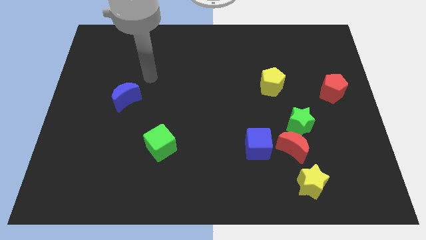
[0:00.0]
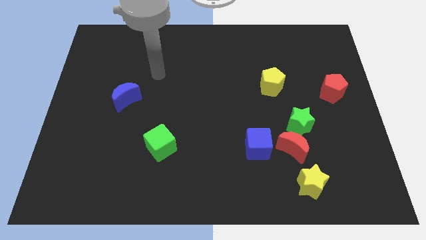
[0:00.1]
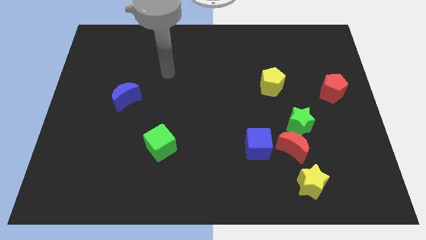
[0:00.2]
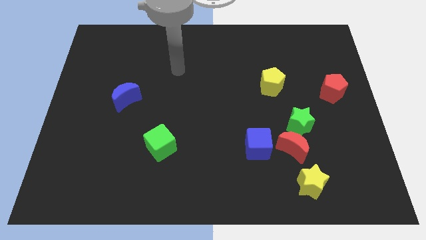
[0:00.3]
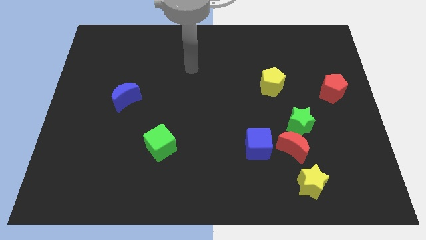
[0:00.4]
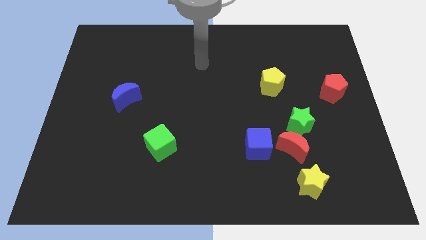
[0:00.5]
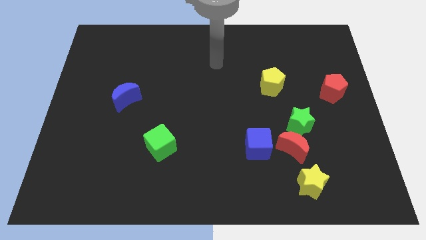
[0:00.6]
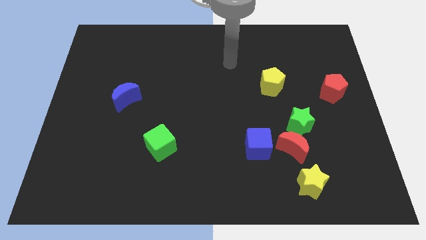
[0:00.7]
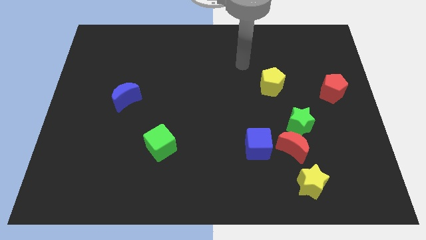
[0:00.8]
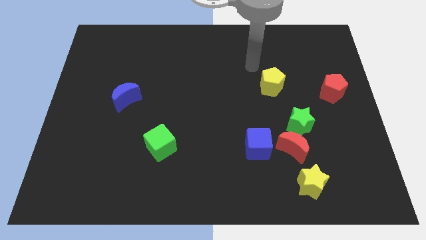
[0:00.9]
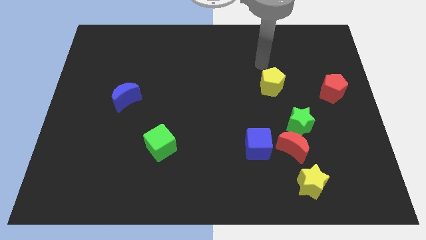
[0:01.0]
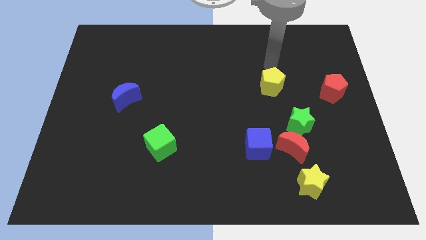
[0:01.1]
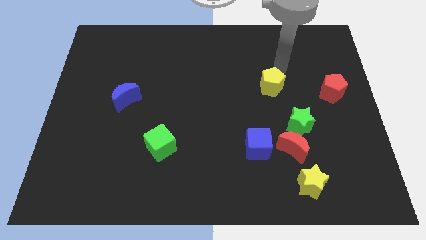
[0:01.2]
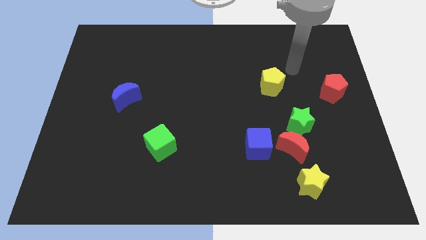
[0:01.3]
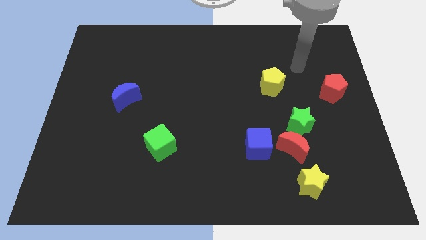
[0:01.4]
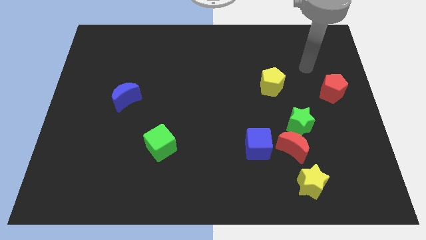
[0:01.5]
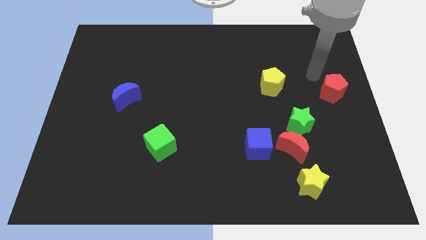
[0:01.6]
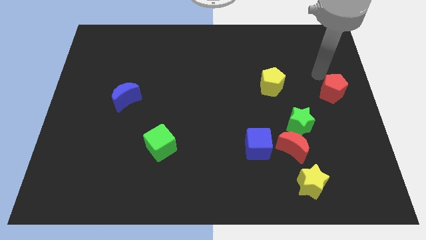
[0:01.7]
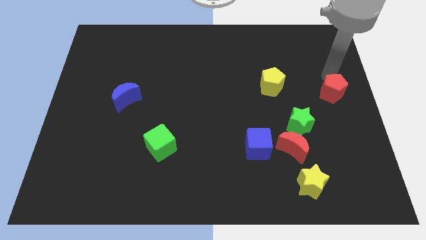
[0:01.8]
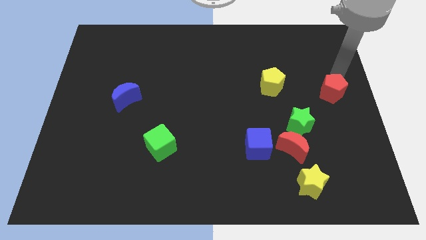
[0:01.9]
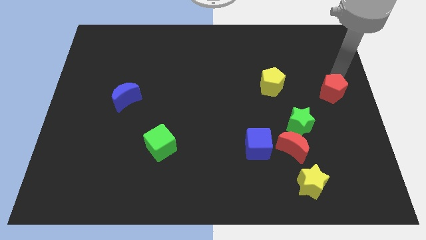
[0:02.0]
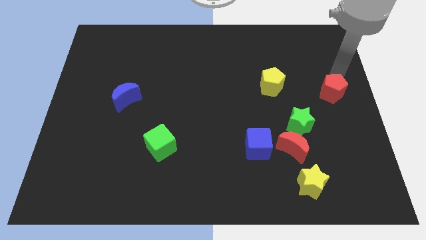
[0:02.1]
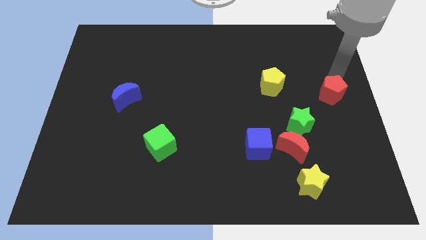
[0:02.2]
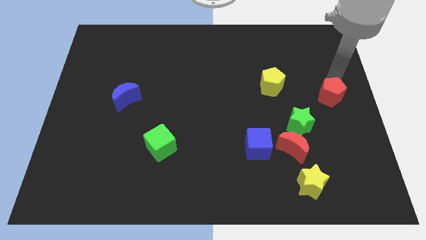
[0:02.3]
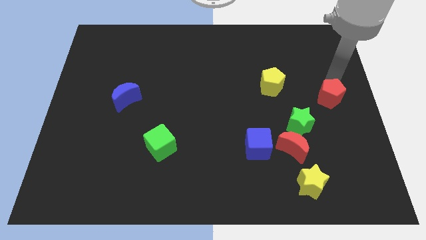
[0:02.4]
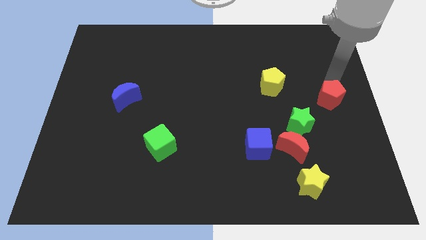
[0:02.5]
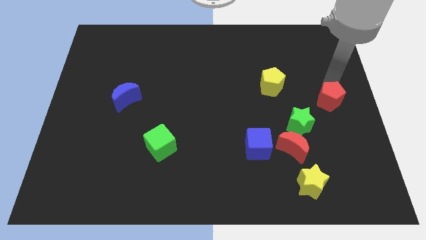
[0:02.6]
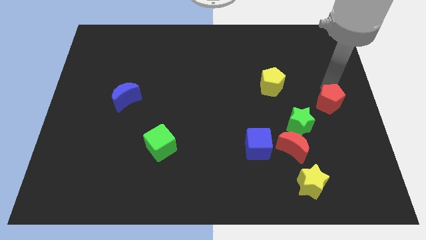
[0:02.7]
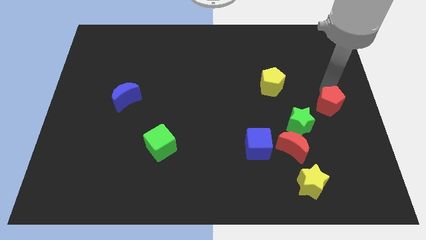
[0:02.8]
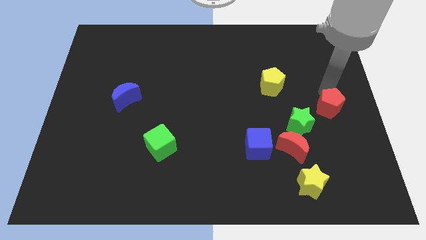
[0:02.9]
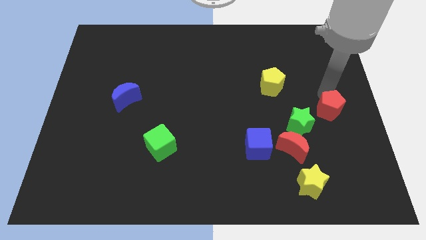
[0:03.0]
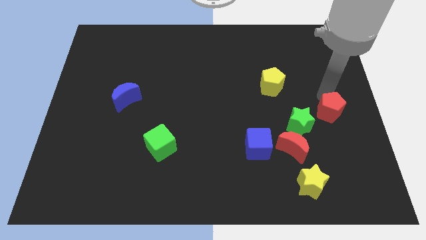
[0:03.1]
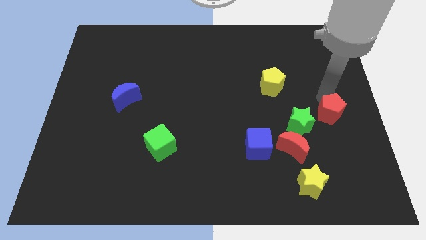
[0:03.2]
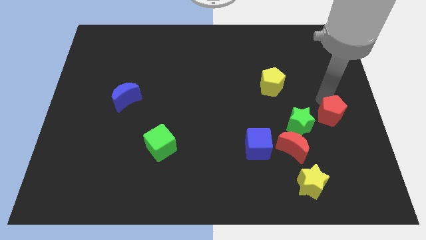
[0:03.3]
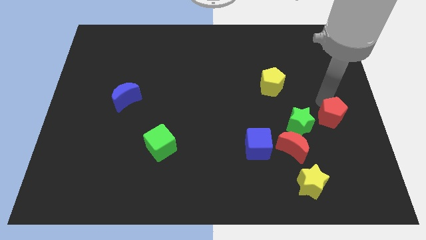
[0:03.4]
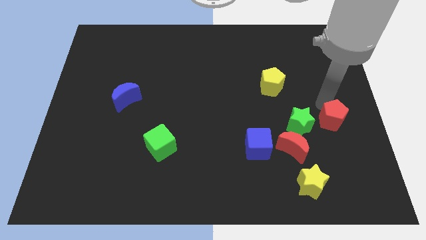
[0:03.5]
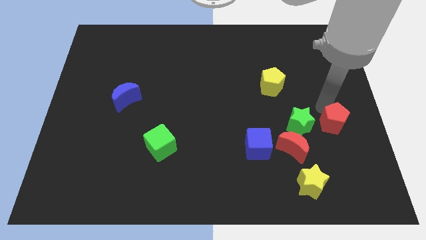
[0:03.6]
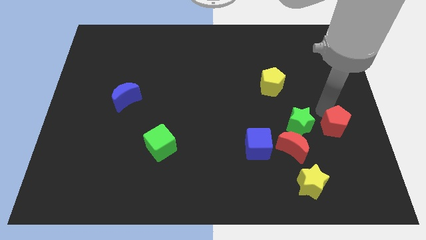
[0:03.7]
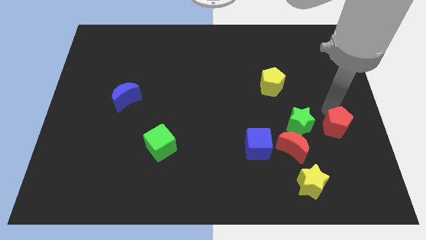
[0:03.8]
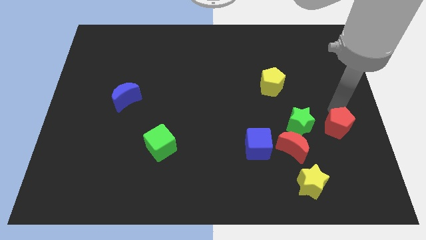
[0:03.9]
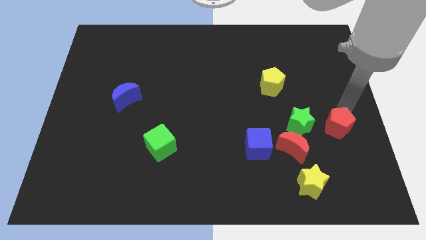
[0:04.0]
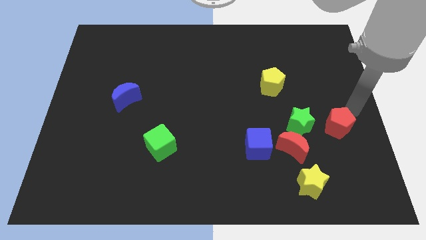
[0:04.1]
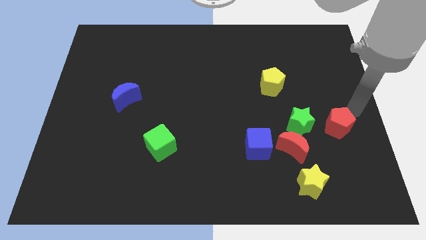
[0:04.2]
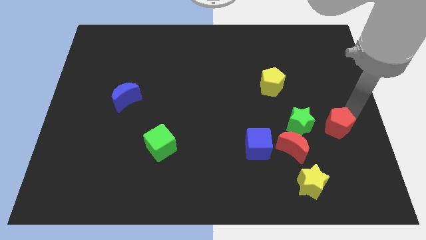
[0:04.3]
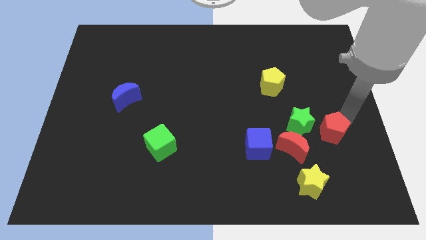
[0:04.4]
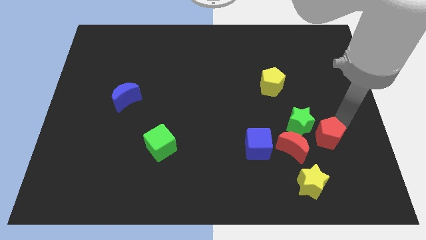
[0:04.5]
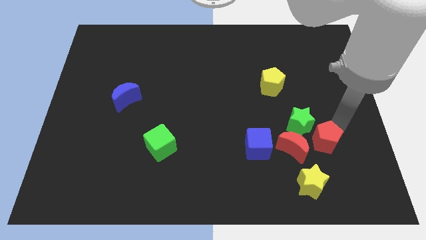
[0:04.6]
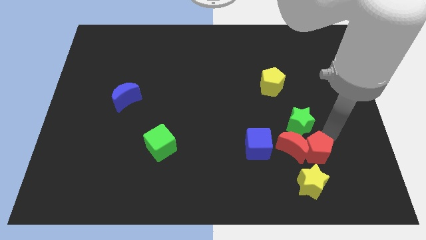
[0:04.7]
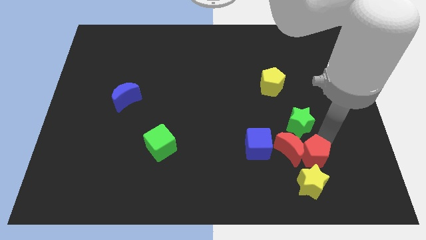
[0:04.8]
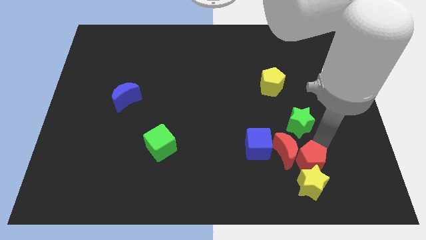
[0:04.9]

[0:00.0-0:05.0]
move the red pentagon close to the yellow star

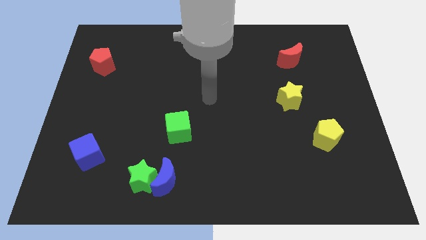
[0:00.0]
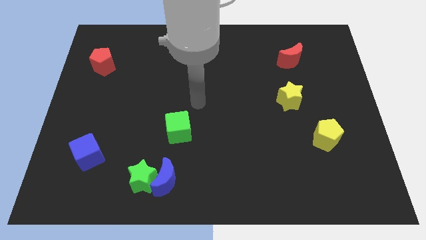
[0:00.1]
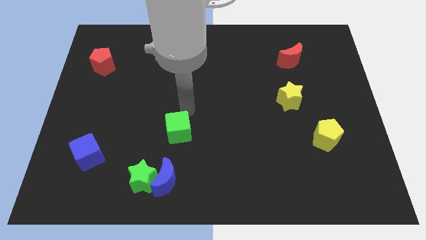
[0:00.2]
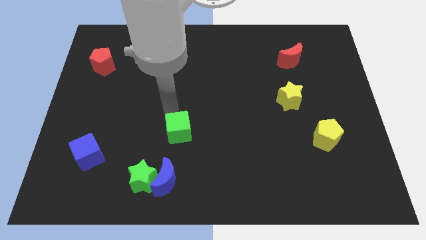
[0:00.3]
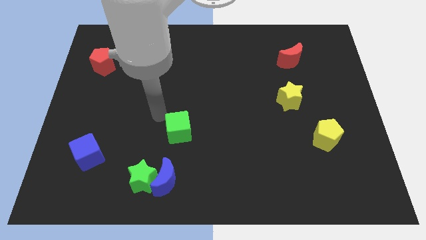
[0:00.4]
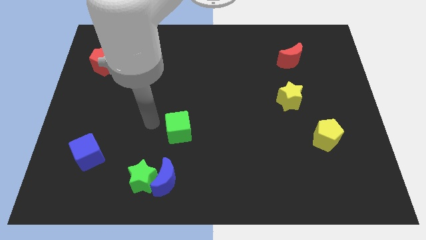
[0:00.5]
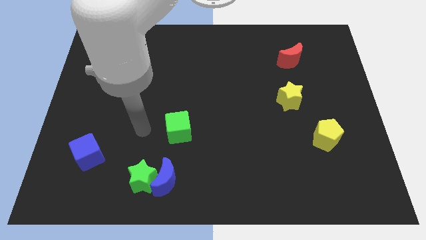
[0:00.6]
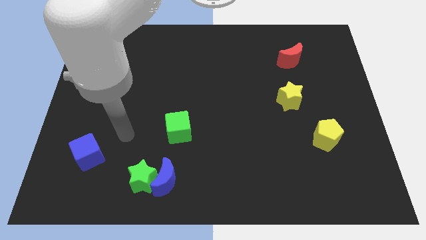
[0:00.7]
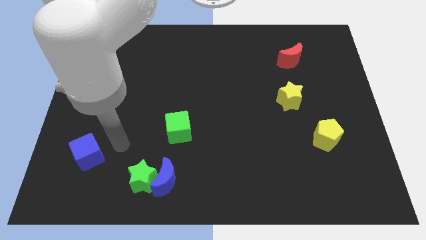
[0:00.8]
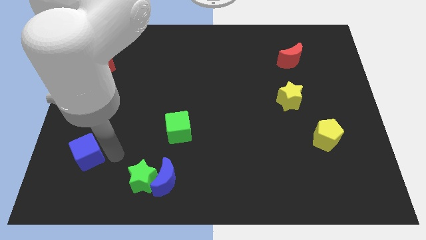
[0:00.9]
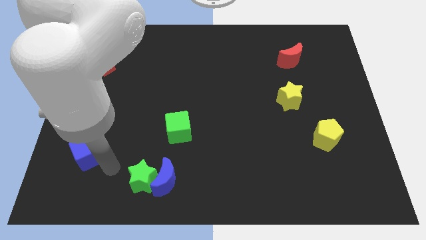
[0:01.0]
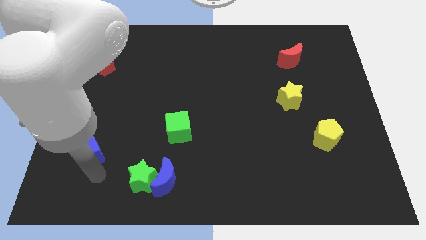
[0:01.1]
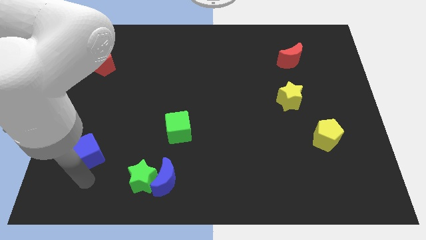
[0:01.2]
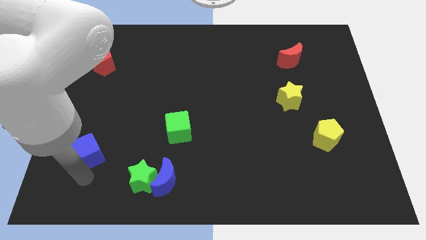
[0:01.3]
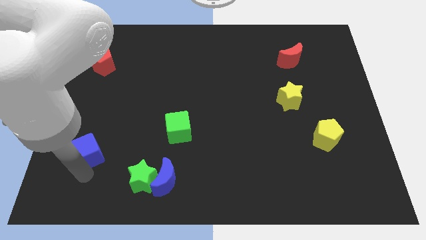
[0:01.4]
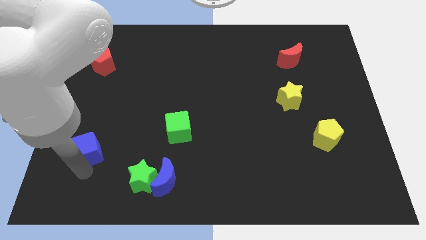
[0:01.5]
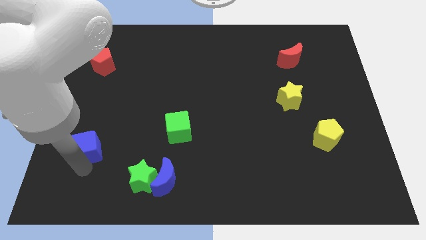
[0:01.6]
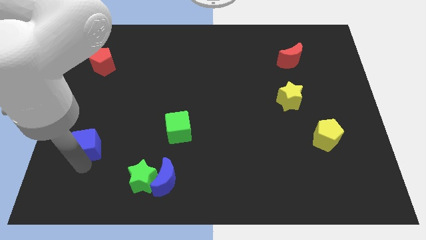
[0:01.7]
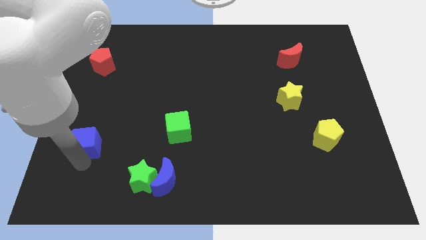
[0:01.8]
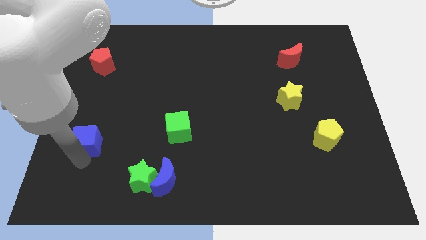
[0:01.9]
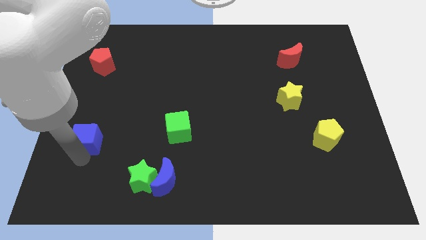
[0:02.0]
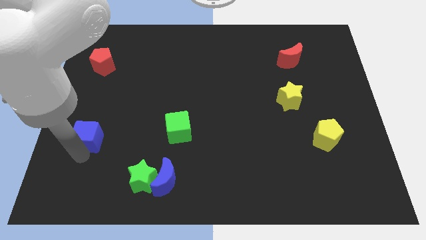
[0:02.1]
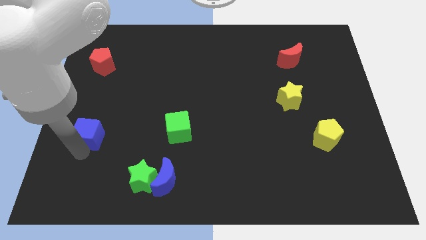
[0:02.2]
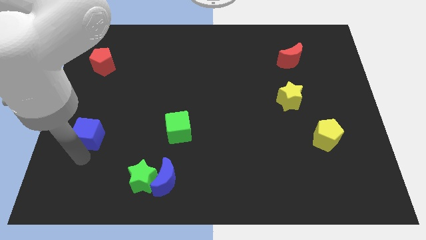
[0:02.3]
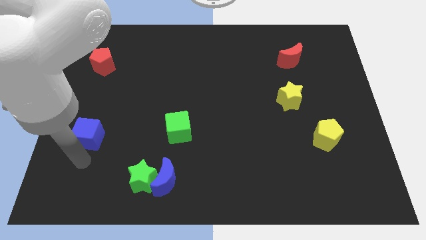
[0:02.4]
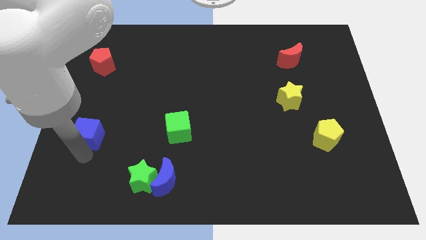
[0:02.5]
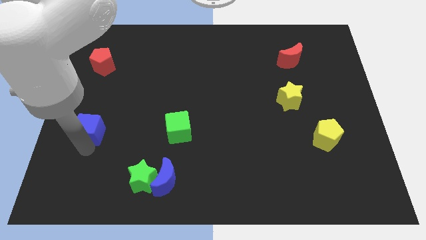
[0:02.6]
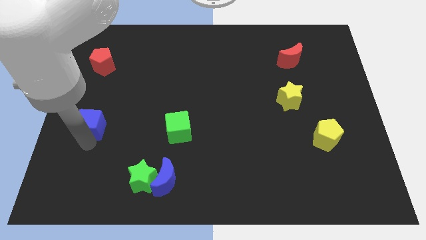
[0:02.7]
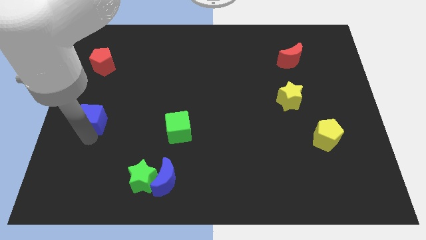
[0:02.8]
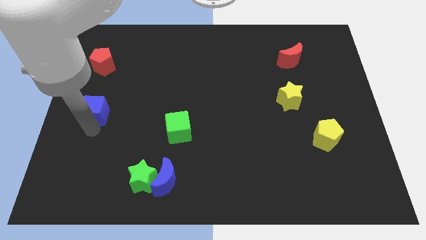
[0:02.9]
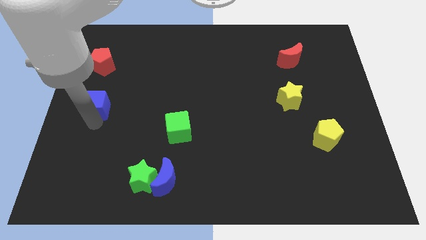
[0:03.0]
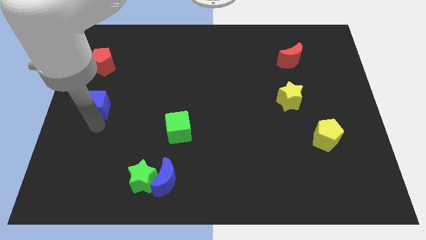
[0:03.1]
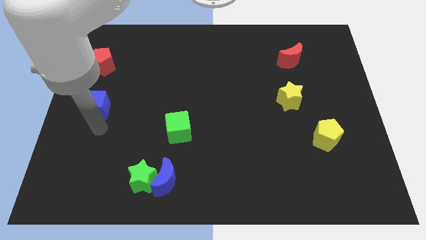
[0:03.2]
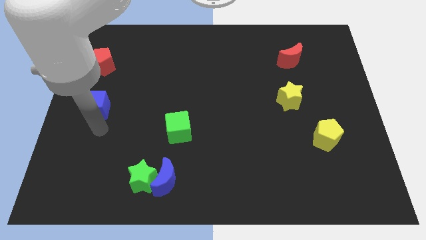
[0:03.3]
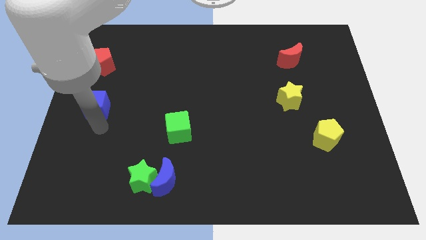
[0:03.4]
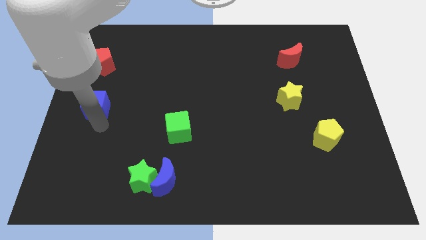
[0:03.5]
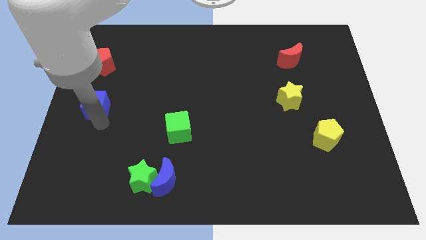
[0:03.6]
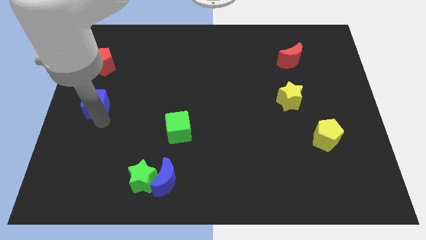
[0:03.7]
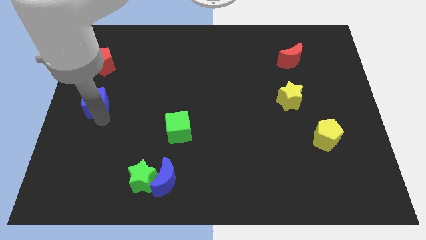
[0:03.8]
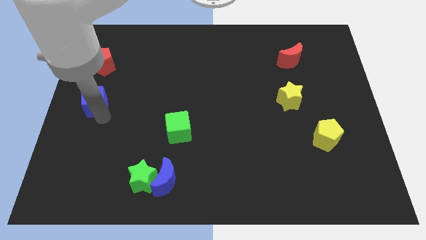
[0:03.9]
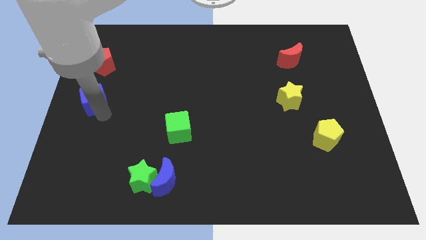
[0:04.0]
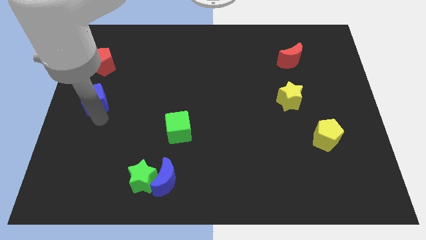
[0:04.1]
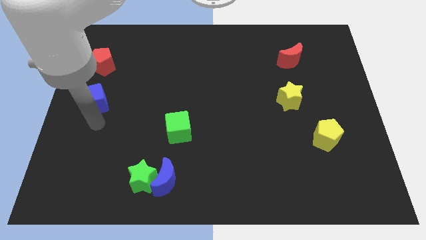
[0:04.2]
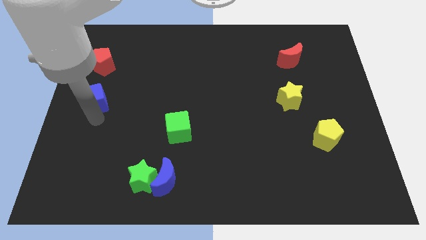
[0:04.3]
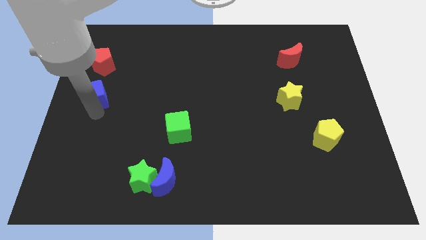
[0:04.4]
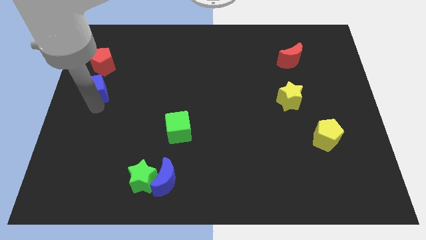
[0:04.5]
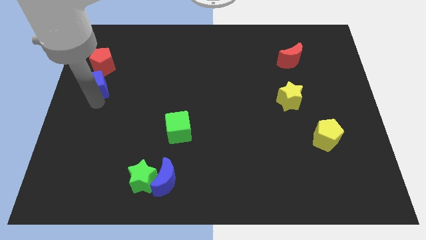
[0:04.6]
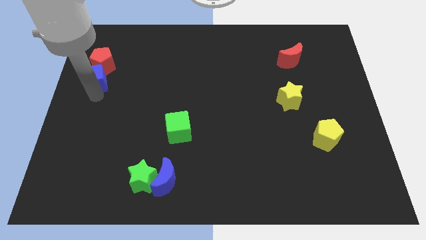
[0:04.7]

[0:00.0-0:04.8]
put the blue cube close to the red pentagon
